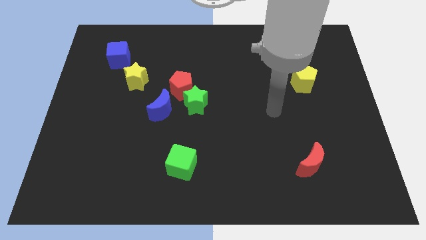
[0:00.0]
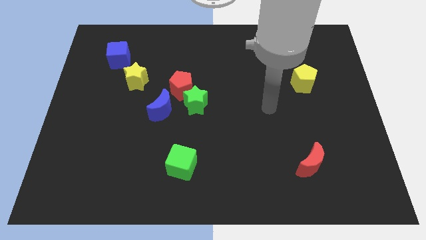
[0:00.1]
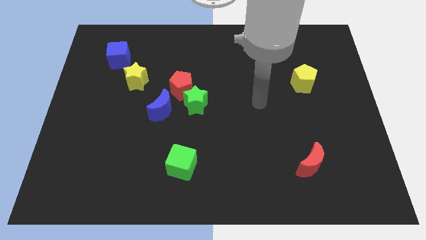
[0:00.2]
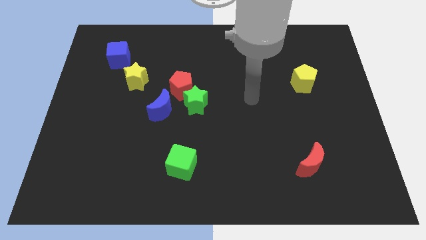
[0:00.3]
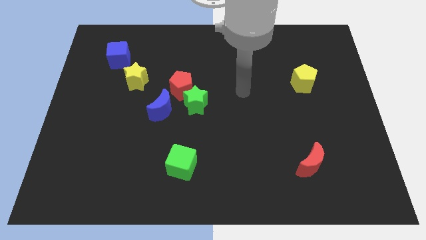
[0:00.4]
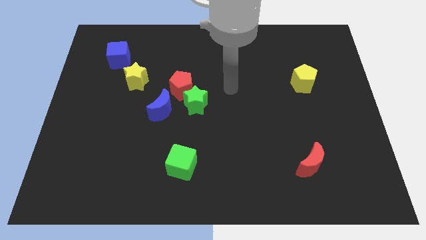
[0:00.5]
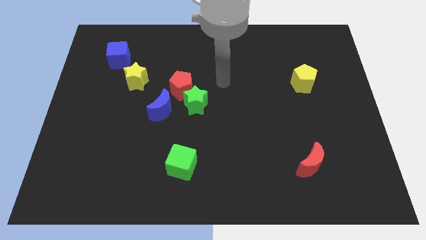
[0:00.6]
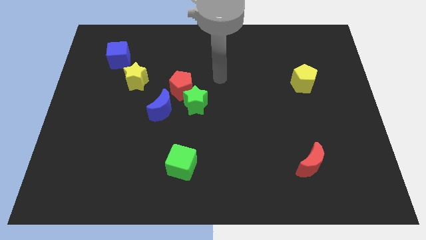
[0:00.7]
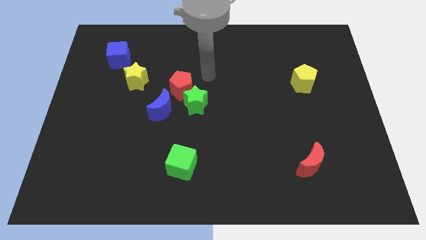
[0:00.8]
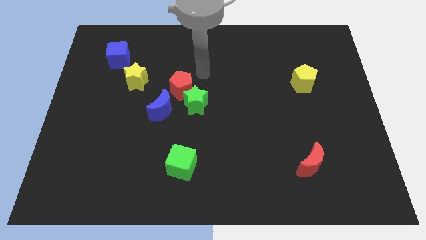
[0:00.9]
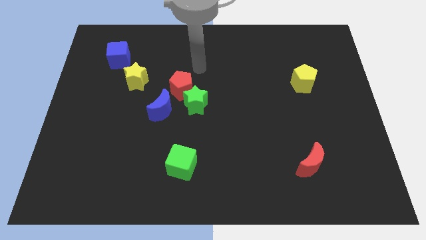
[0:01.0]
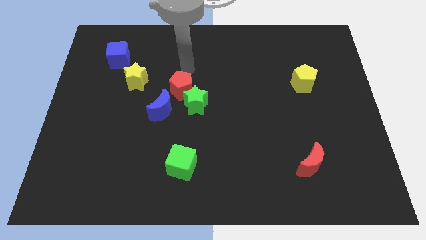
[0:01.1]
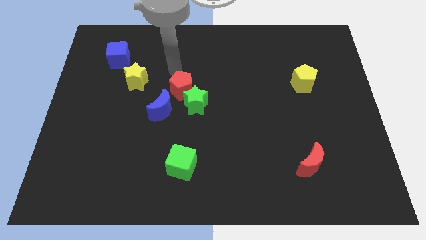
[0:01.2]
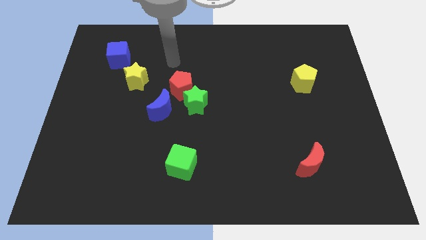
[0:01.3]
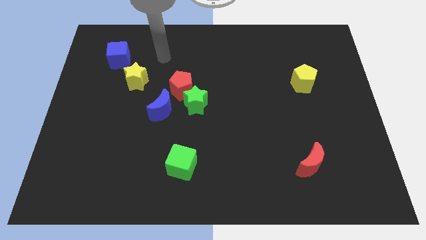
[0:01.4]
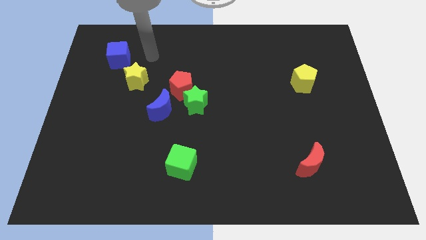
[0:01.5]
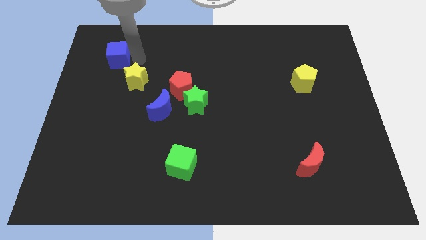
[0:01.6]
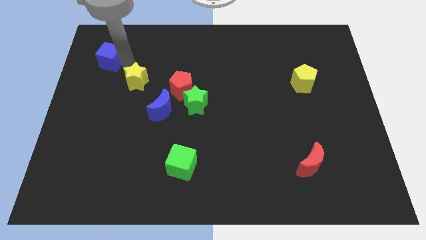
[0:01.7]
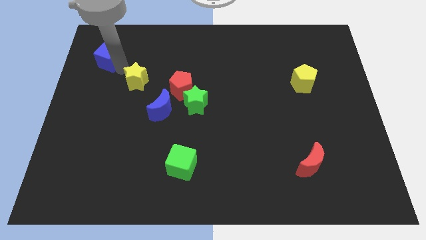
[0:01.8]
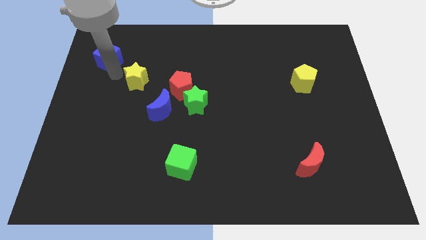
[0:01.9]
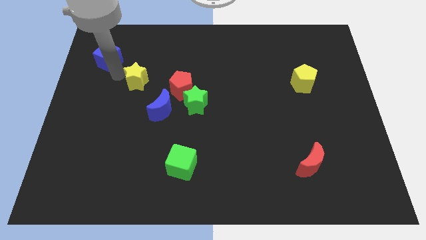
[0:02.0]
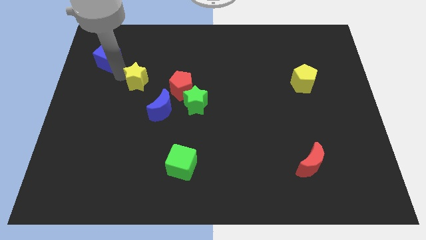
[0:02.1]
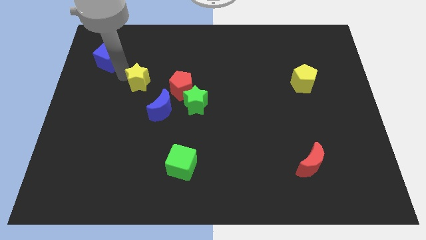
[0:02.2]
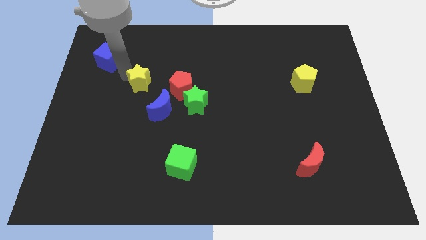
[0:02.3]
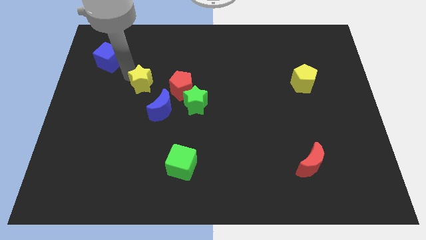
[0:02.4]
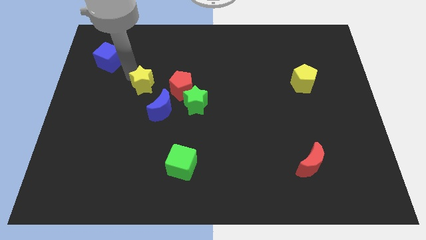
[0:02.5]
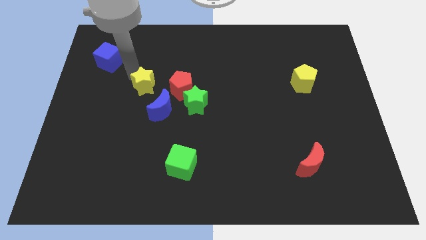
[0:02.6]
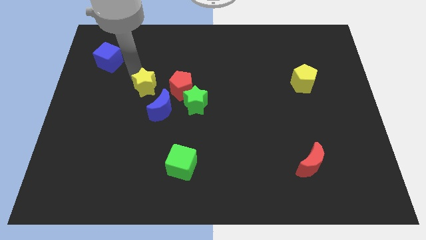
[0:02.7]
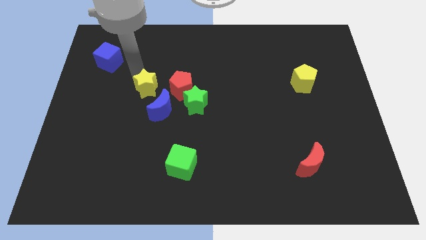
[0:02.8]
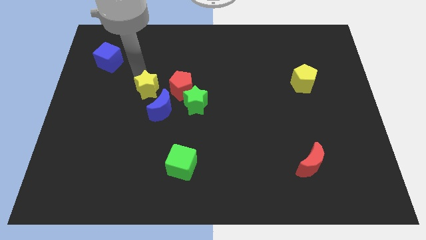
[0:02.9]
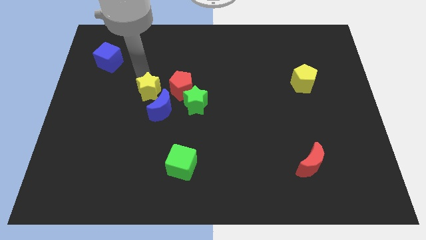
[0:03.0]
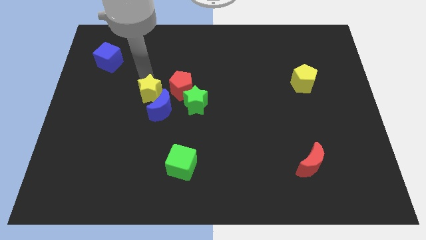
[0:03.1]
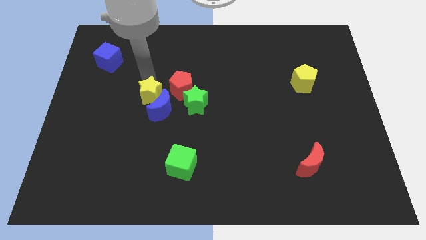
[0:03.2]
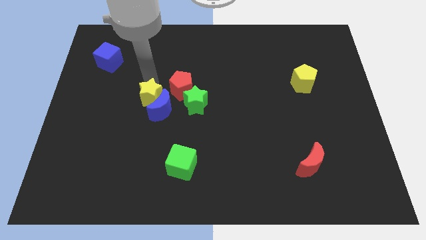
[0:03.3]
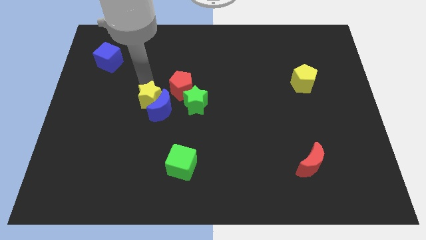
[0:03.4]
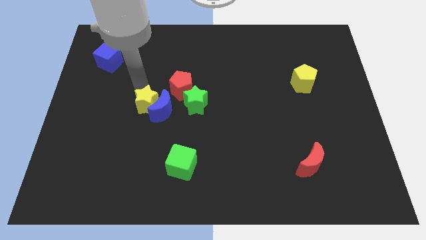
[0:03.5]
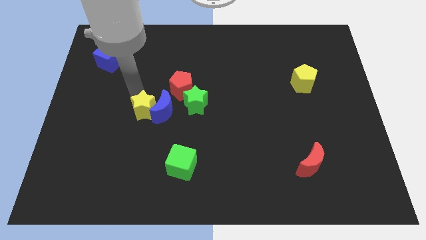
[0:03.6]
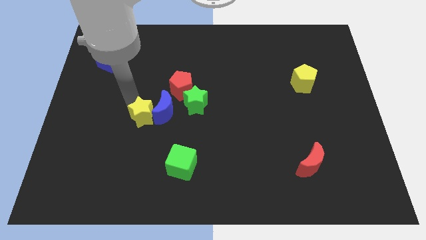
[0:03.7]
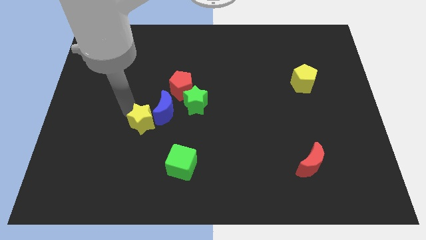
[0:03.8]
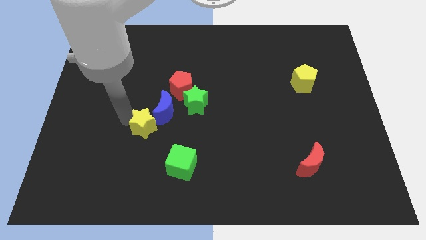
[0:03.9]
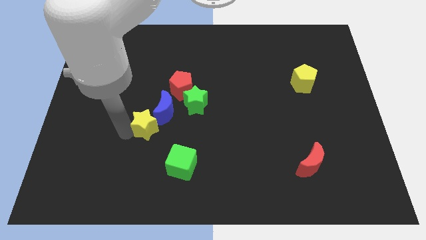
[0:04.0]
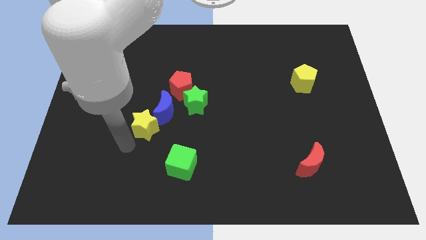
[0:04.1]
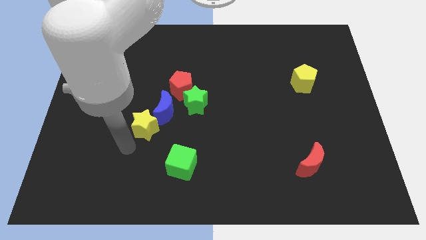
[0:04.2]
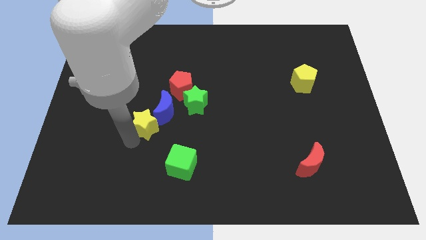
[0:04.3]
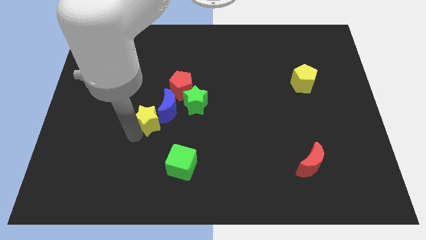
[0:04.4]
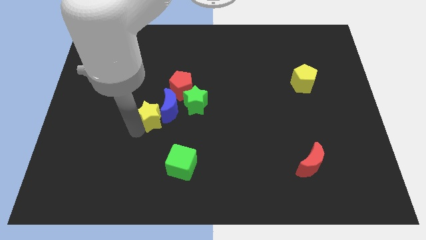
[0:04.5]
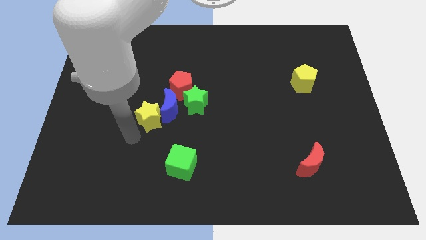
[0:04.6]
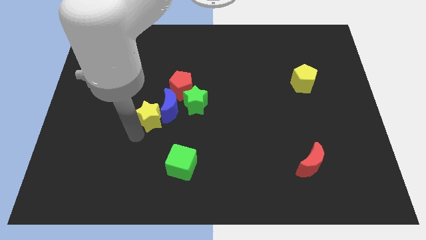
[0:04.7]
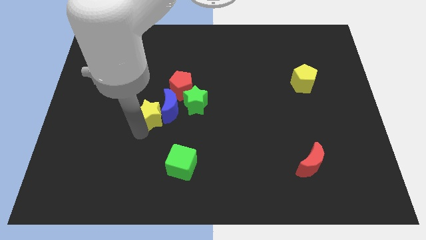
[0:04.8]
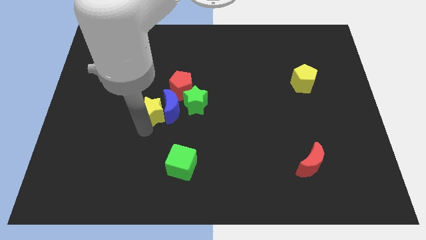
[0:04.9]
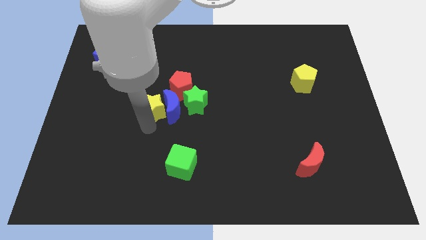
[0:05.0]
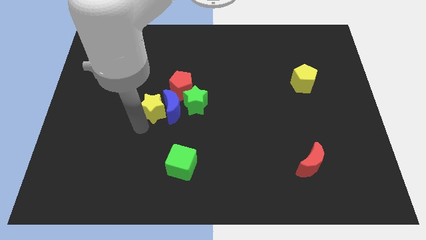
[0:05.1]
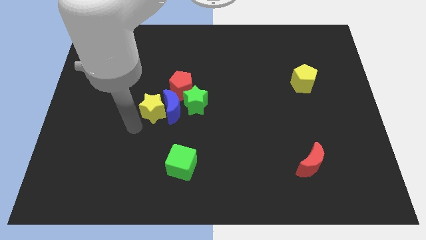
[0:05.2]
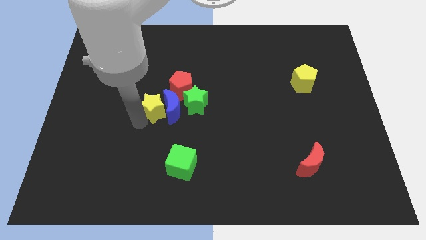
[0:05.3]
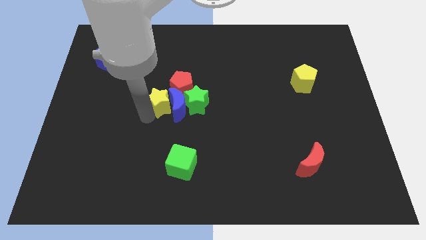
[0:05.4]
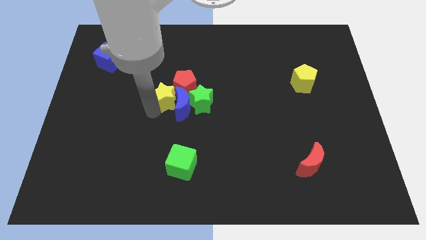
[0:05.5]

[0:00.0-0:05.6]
push the yellow star close to the red pentagon

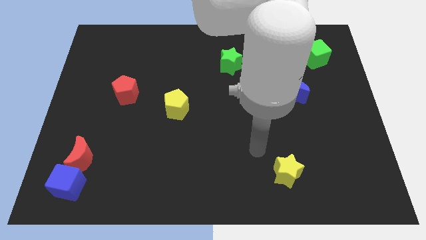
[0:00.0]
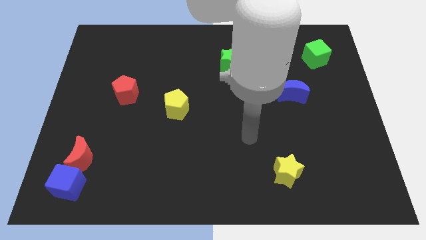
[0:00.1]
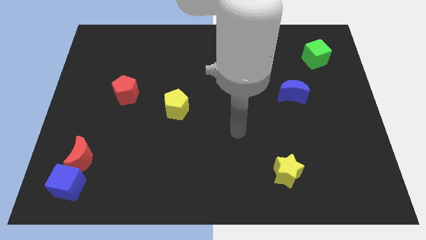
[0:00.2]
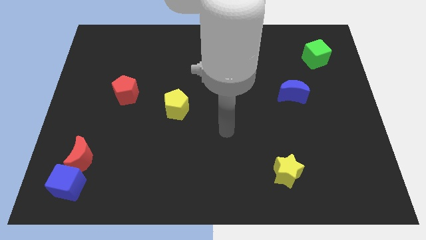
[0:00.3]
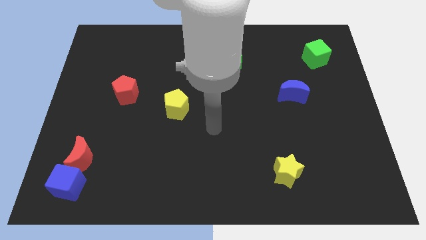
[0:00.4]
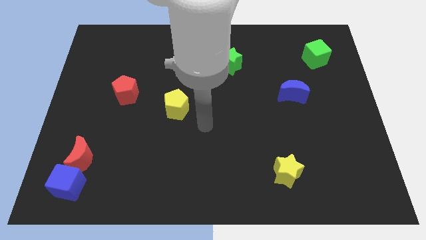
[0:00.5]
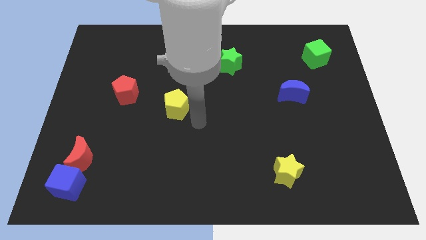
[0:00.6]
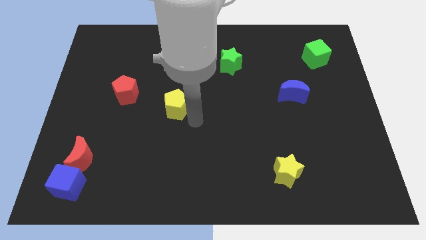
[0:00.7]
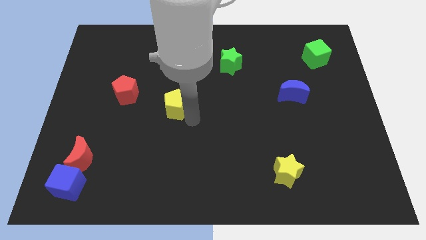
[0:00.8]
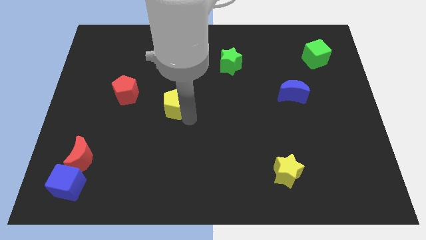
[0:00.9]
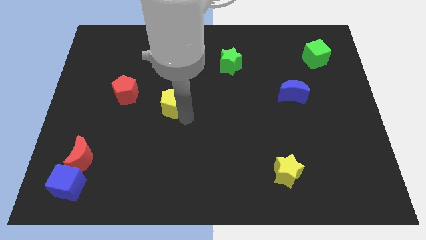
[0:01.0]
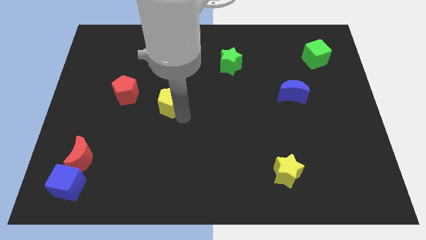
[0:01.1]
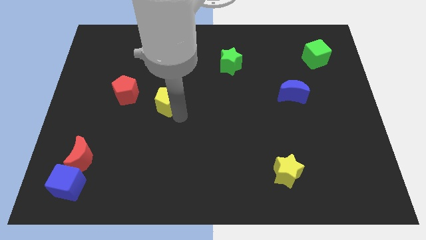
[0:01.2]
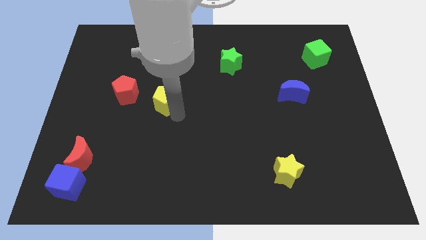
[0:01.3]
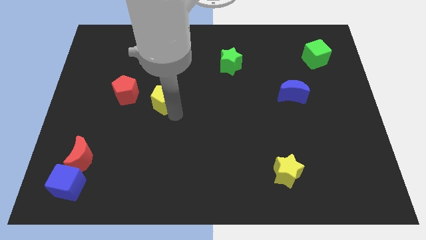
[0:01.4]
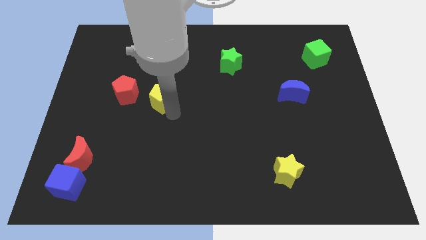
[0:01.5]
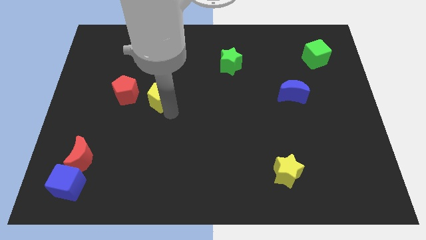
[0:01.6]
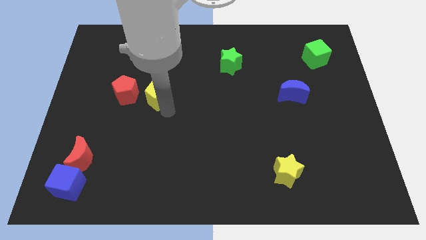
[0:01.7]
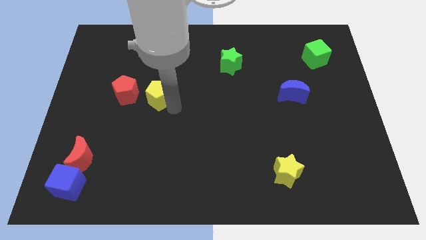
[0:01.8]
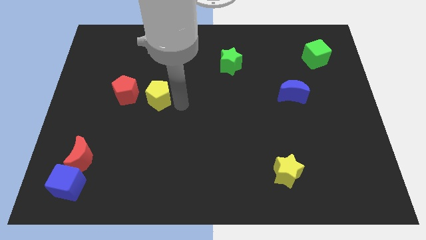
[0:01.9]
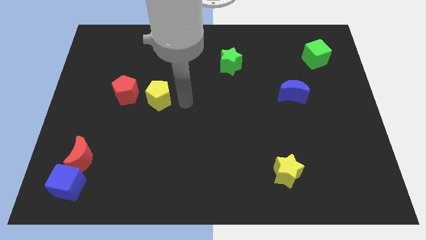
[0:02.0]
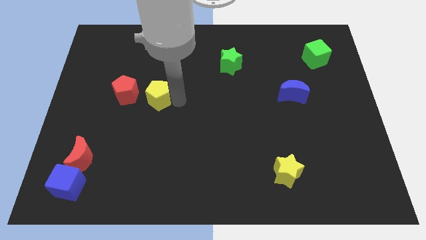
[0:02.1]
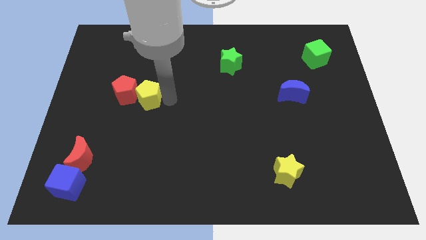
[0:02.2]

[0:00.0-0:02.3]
put the yellow pentagon towards the red pentagon
